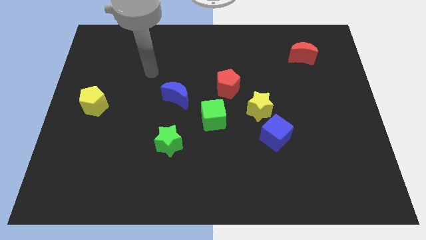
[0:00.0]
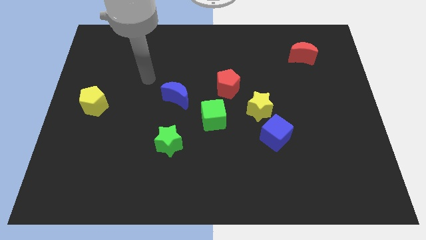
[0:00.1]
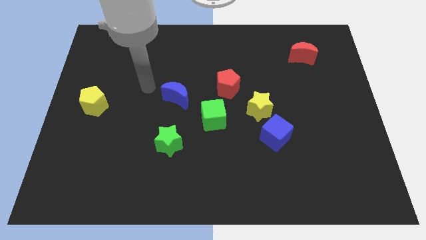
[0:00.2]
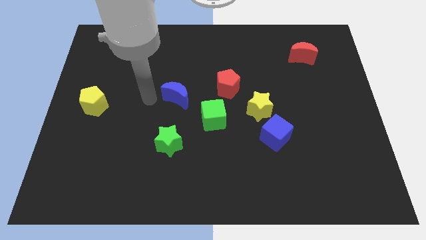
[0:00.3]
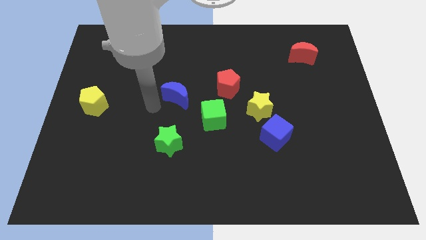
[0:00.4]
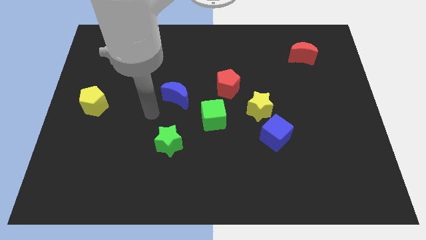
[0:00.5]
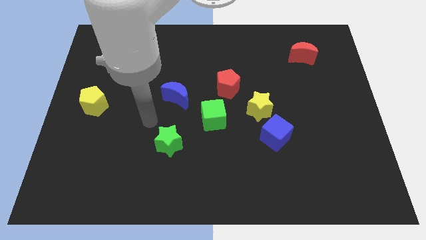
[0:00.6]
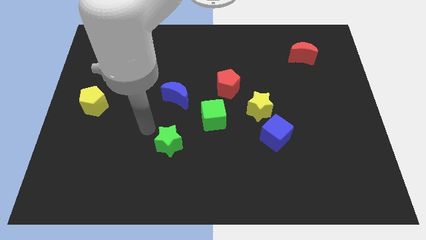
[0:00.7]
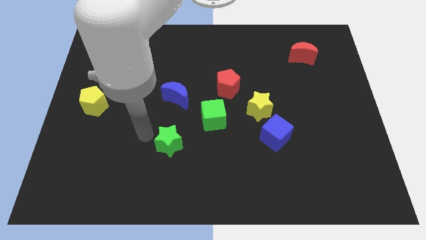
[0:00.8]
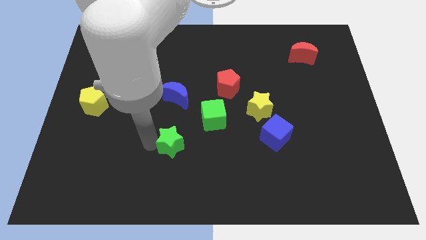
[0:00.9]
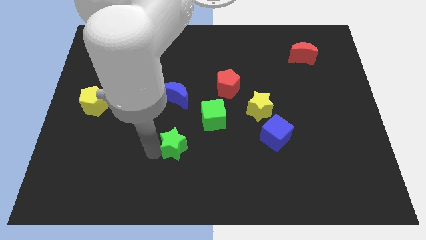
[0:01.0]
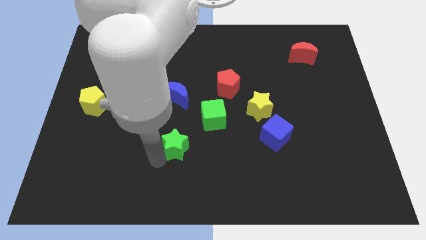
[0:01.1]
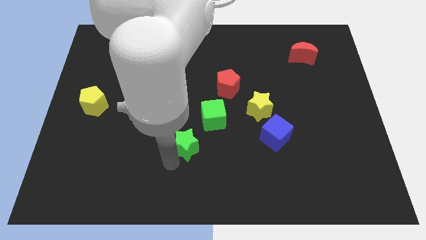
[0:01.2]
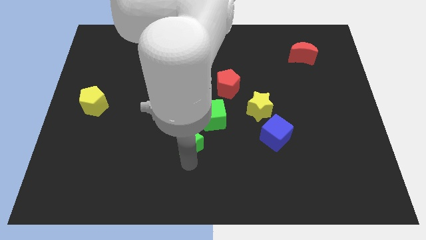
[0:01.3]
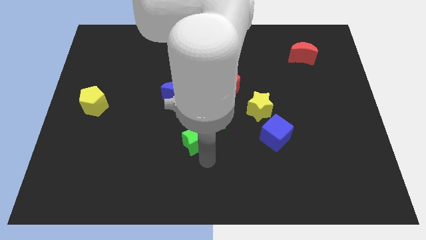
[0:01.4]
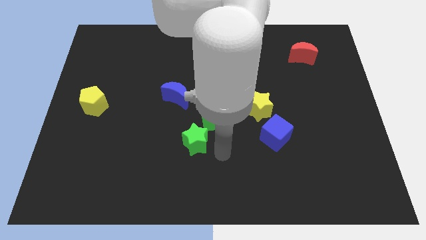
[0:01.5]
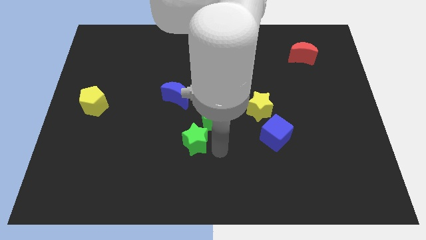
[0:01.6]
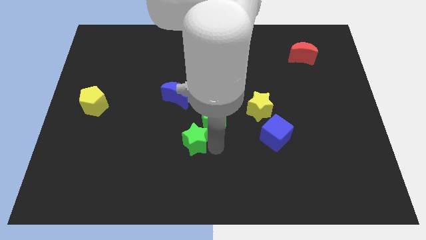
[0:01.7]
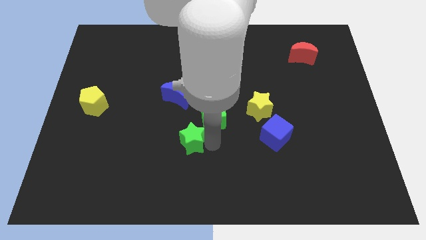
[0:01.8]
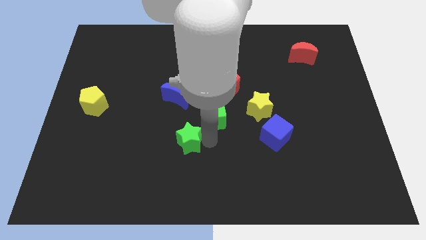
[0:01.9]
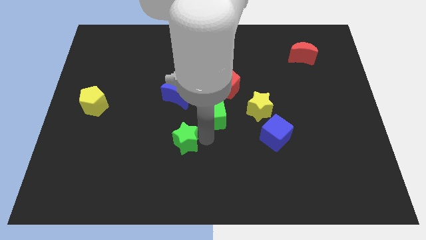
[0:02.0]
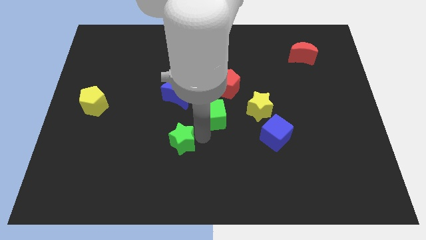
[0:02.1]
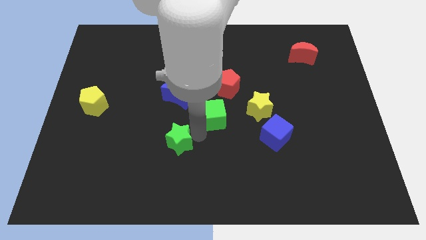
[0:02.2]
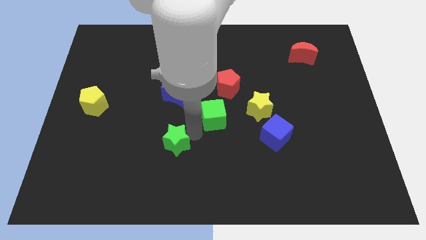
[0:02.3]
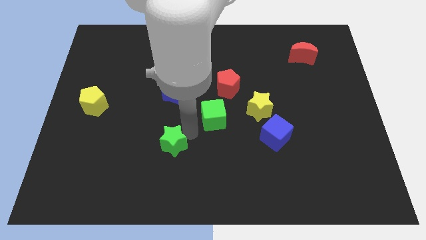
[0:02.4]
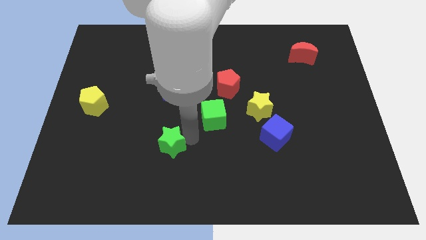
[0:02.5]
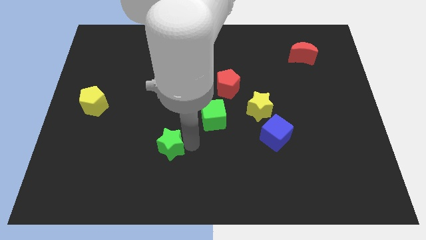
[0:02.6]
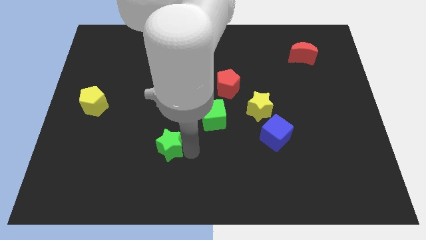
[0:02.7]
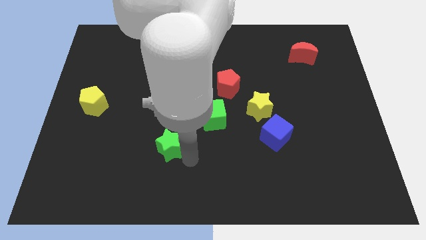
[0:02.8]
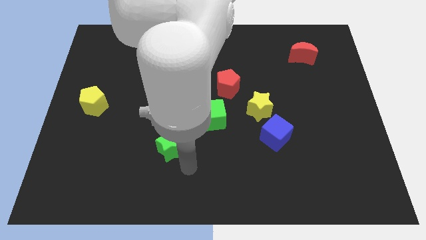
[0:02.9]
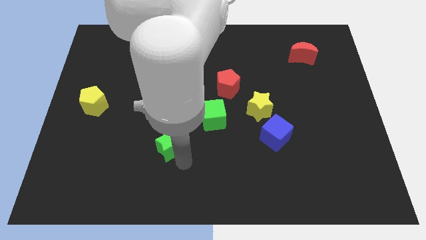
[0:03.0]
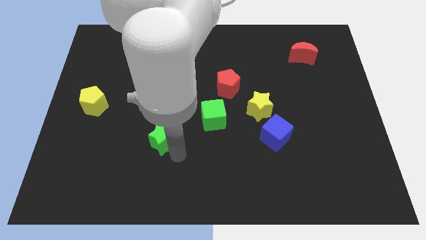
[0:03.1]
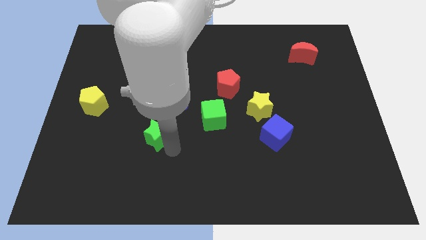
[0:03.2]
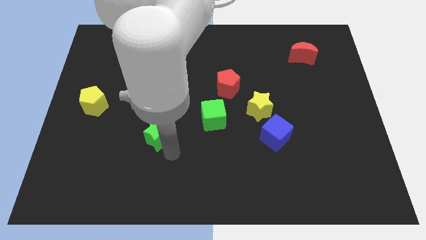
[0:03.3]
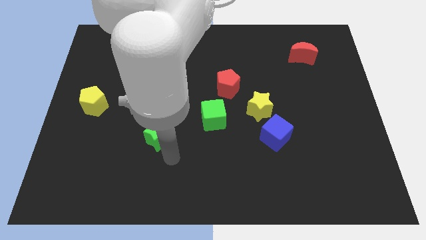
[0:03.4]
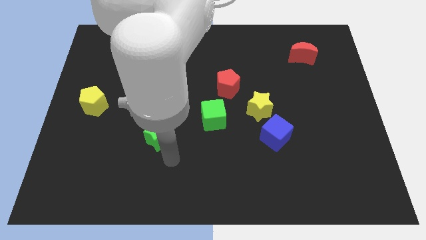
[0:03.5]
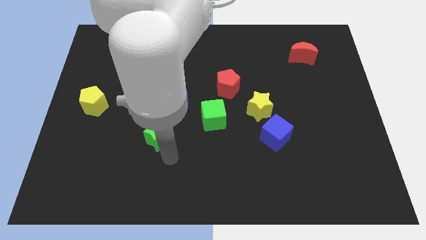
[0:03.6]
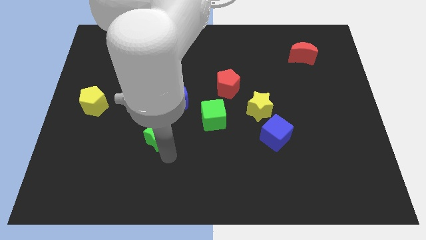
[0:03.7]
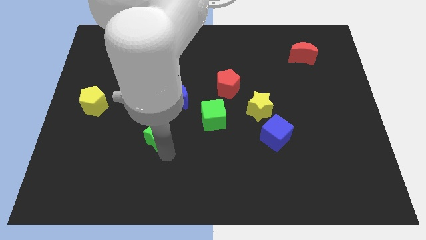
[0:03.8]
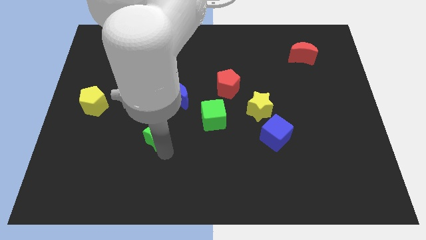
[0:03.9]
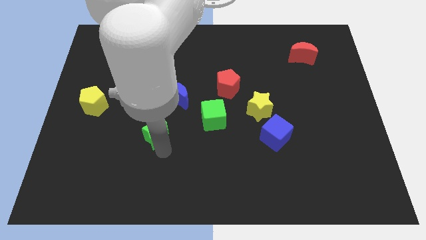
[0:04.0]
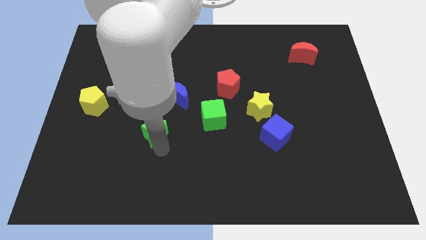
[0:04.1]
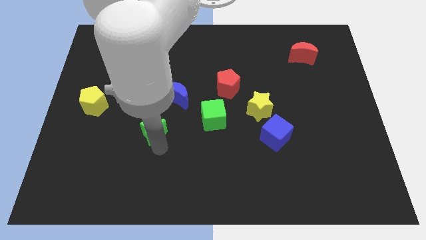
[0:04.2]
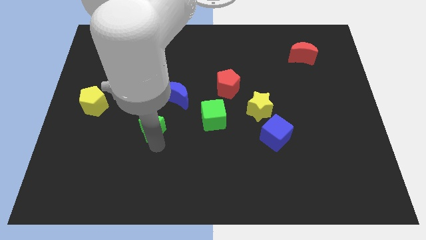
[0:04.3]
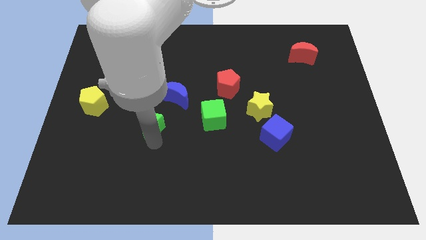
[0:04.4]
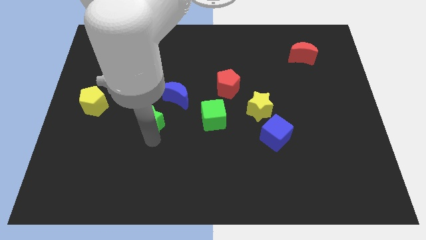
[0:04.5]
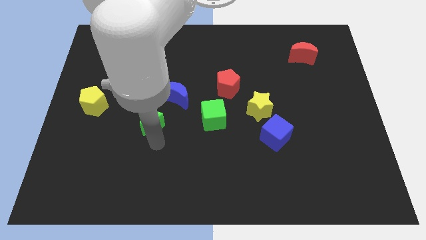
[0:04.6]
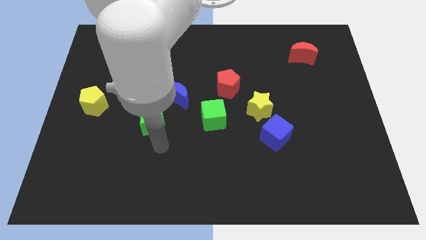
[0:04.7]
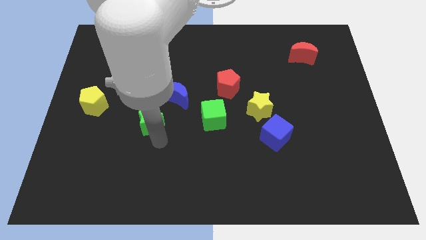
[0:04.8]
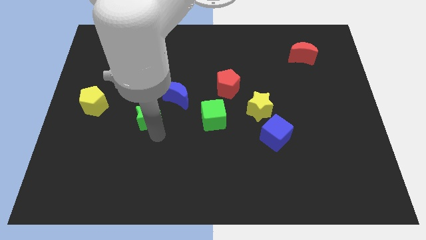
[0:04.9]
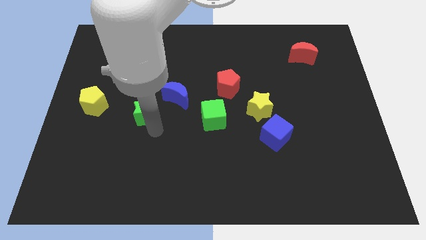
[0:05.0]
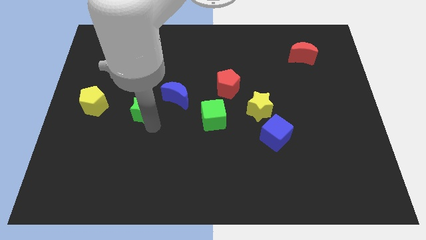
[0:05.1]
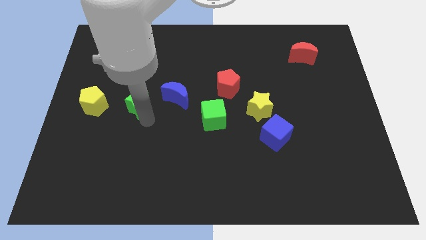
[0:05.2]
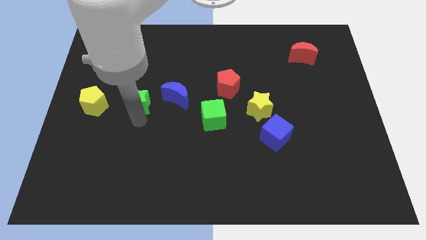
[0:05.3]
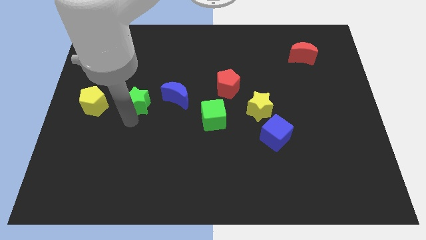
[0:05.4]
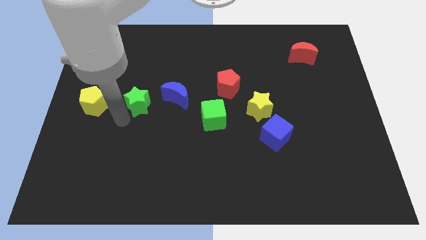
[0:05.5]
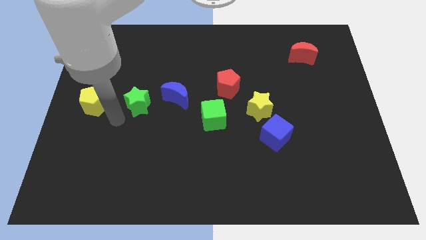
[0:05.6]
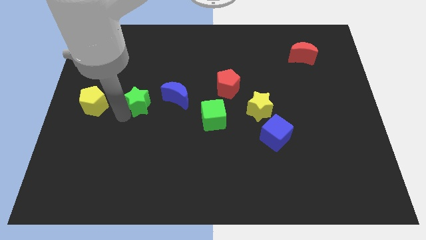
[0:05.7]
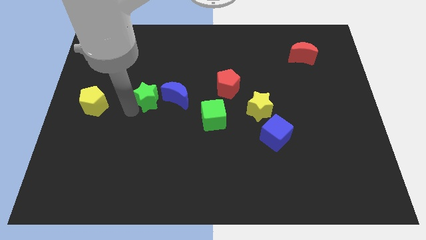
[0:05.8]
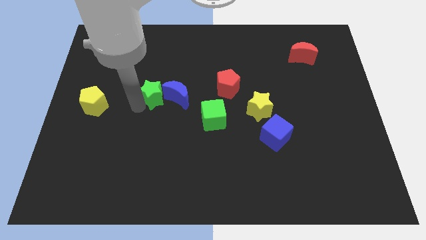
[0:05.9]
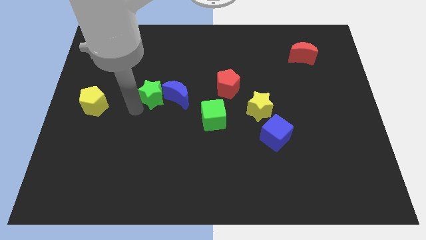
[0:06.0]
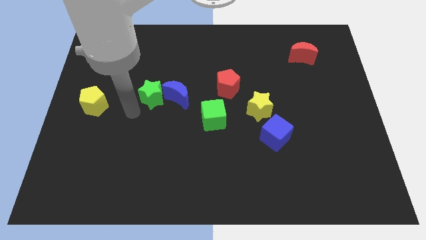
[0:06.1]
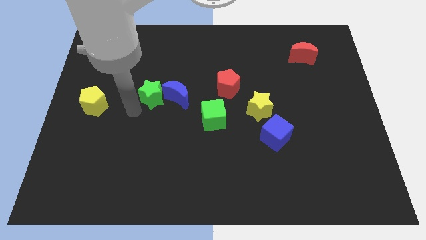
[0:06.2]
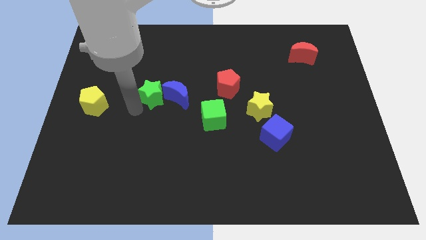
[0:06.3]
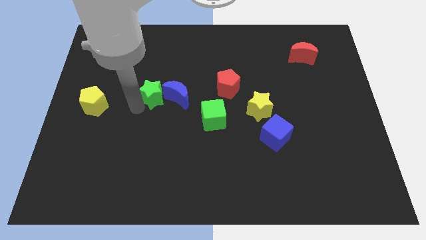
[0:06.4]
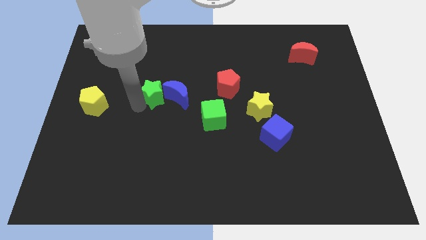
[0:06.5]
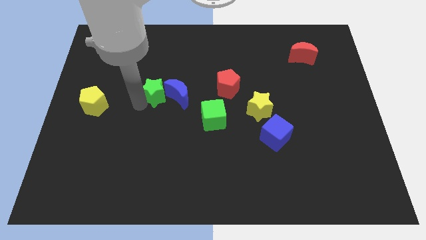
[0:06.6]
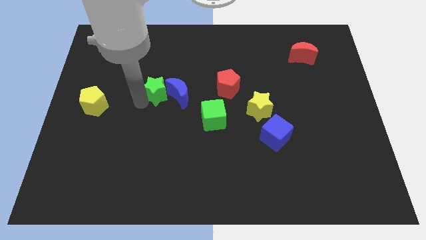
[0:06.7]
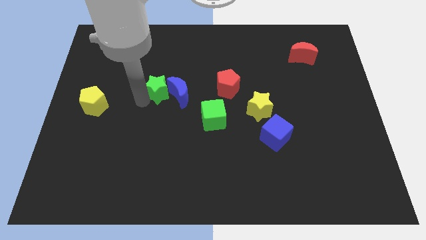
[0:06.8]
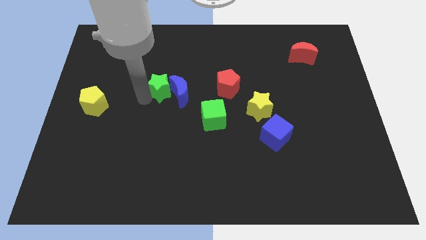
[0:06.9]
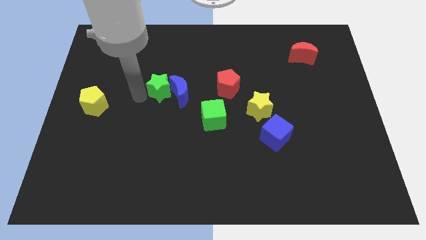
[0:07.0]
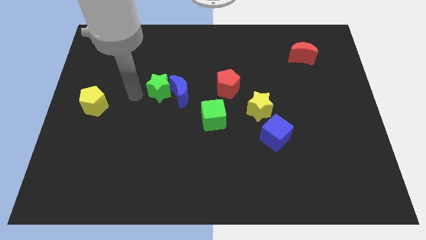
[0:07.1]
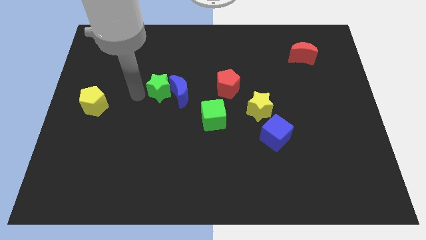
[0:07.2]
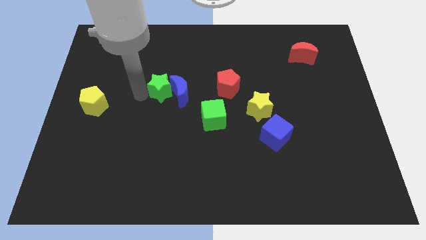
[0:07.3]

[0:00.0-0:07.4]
move the green star to the left of the red pentagon
